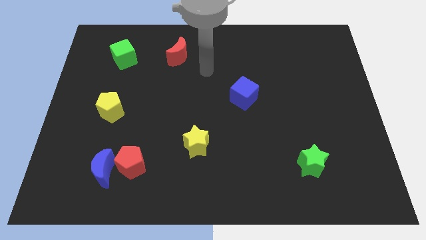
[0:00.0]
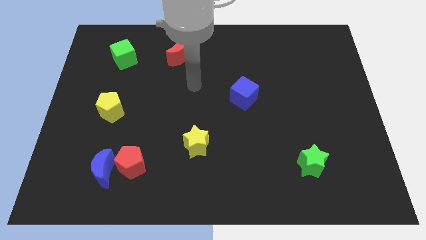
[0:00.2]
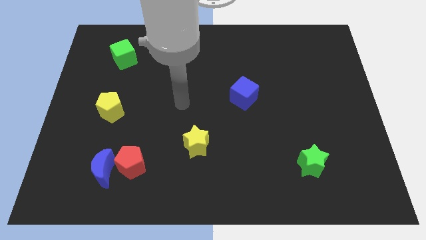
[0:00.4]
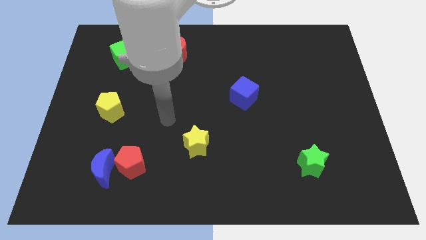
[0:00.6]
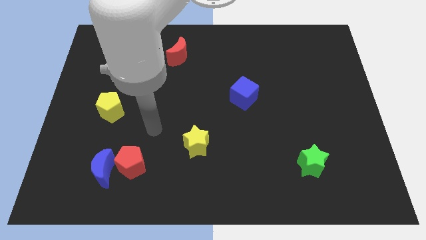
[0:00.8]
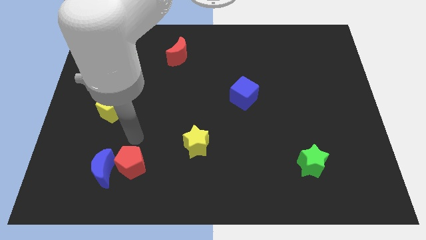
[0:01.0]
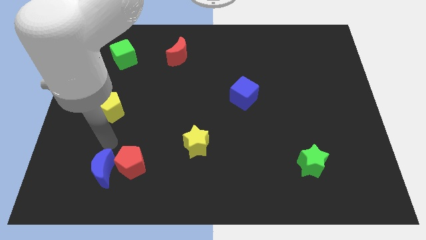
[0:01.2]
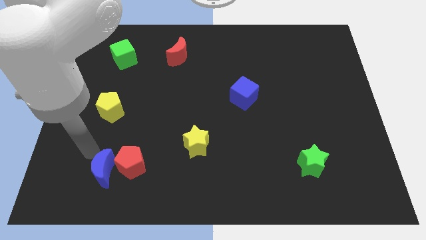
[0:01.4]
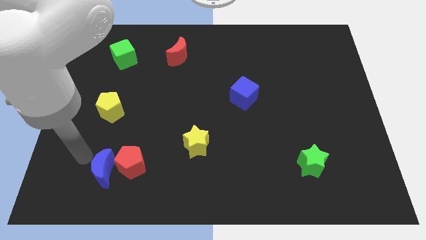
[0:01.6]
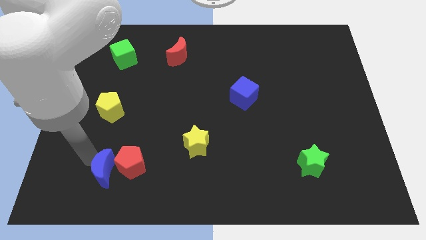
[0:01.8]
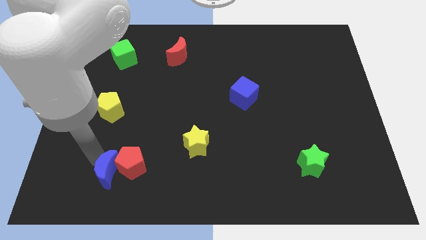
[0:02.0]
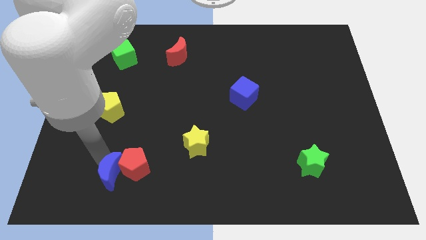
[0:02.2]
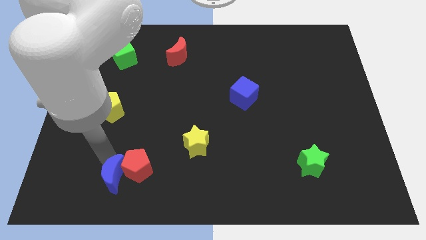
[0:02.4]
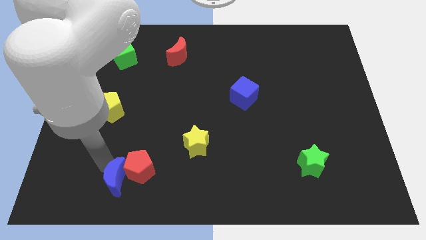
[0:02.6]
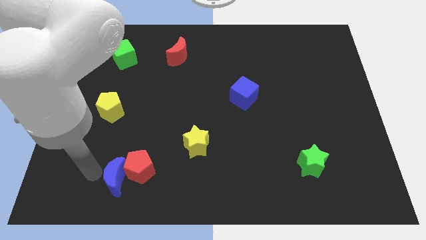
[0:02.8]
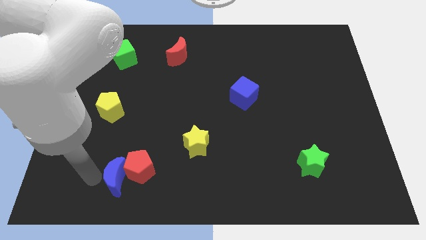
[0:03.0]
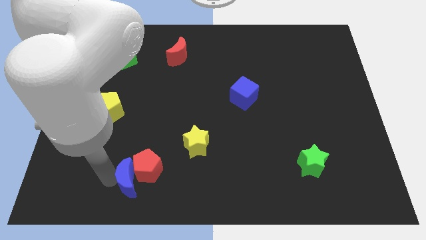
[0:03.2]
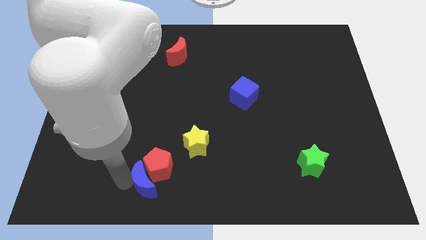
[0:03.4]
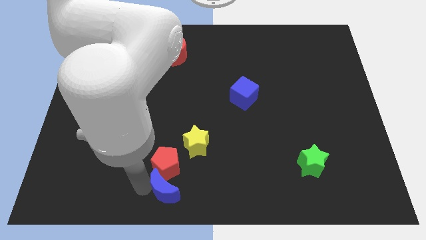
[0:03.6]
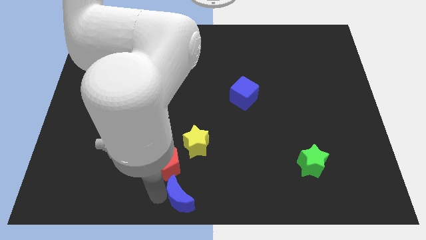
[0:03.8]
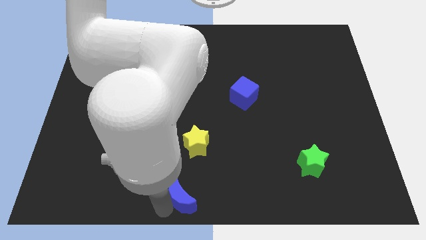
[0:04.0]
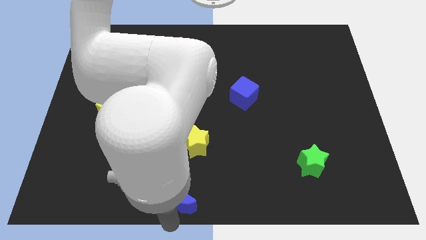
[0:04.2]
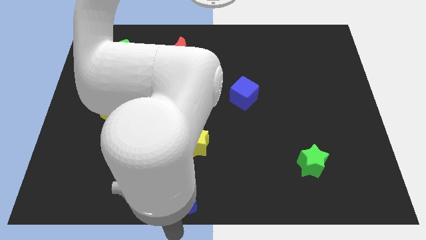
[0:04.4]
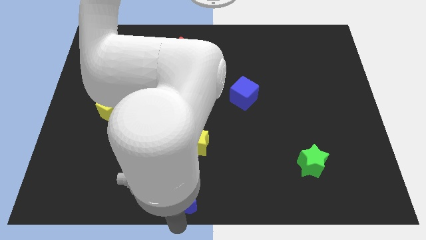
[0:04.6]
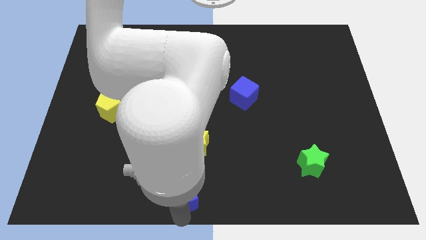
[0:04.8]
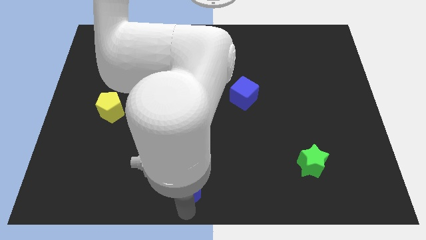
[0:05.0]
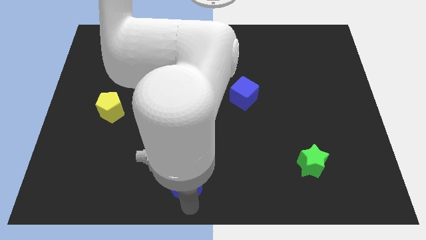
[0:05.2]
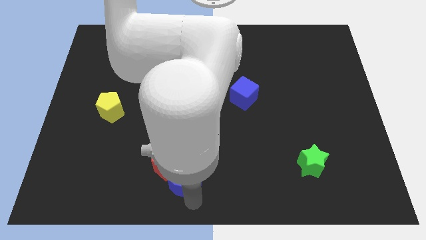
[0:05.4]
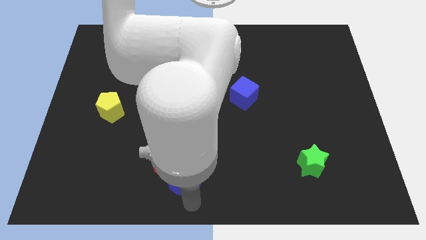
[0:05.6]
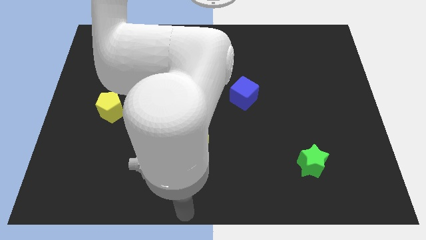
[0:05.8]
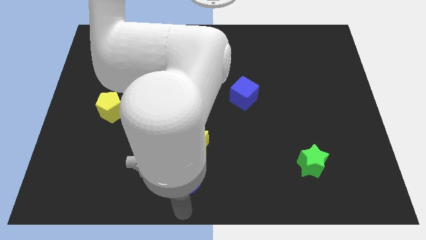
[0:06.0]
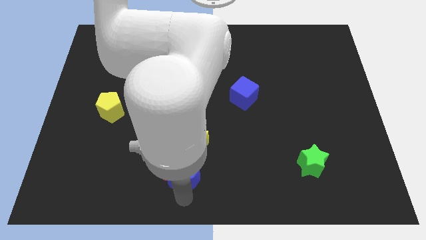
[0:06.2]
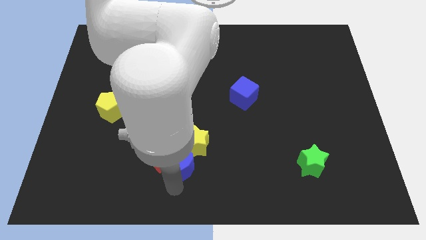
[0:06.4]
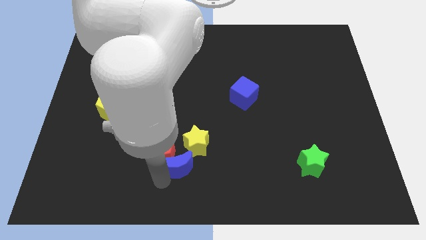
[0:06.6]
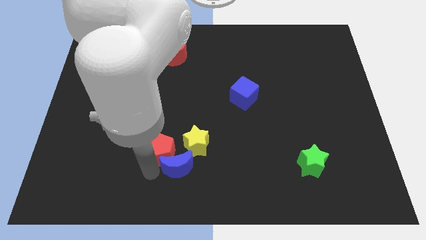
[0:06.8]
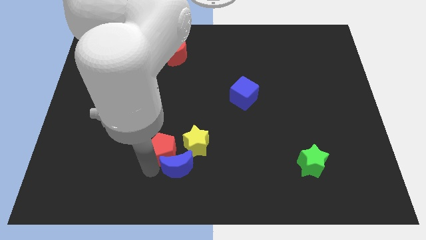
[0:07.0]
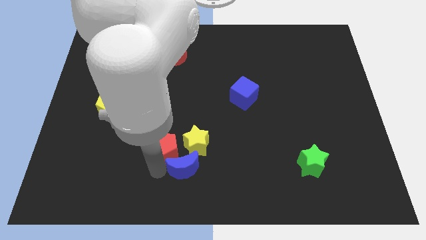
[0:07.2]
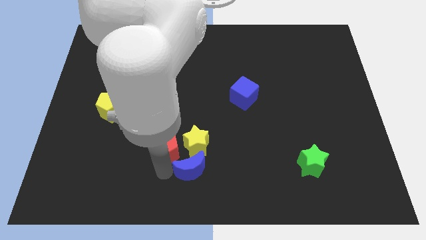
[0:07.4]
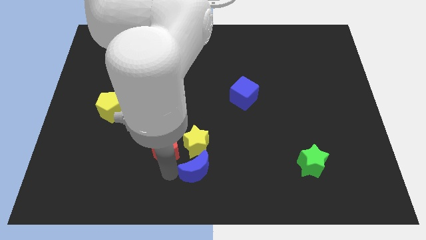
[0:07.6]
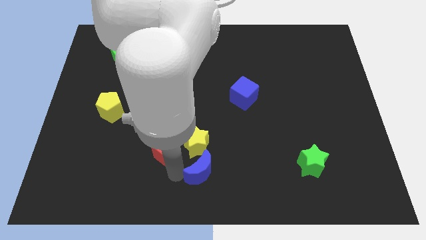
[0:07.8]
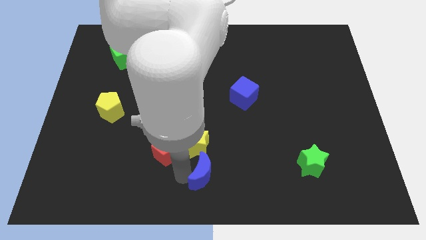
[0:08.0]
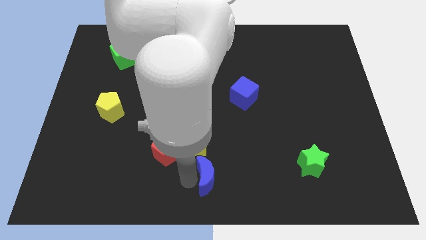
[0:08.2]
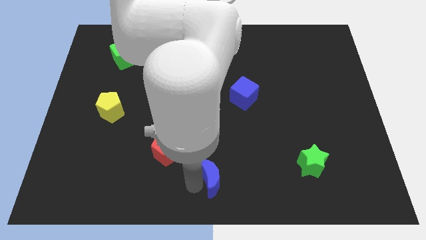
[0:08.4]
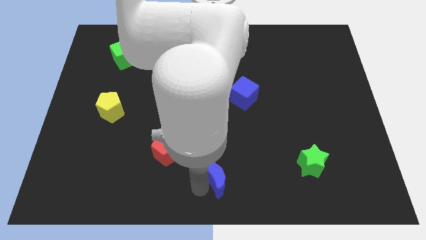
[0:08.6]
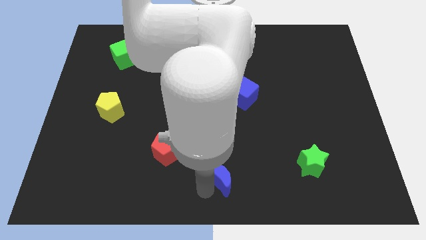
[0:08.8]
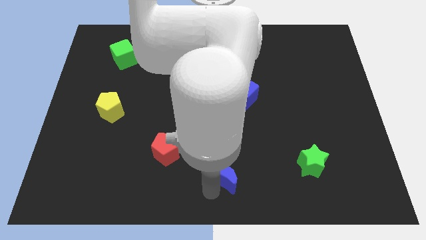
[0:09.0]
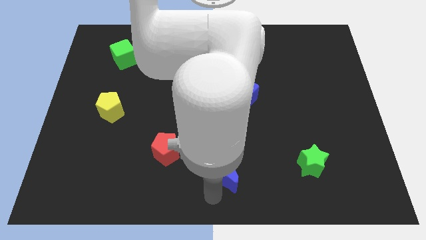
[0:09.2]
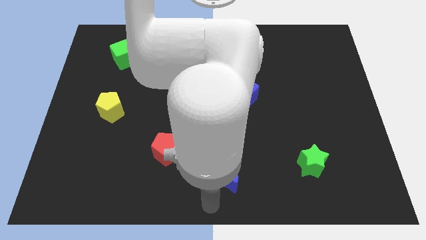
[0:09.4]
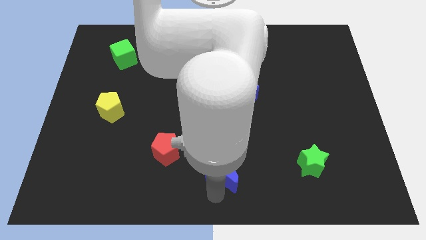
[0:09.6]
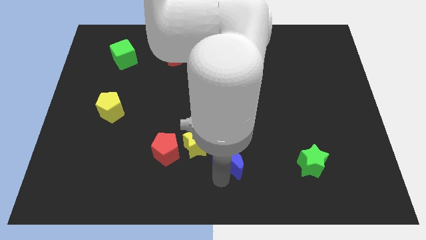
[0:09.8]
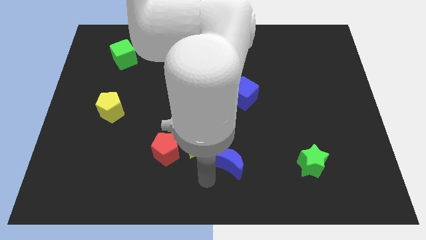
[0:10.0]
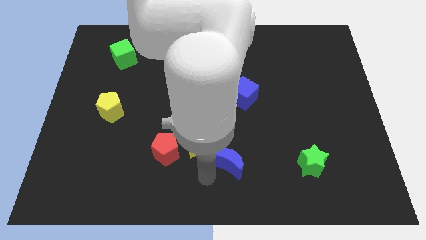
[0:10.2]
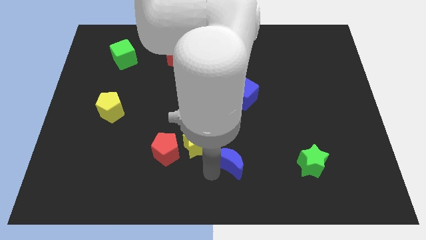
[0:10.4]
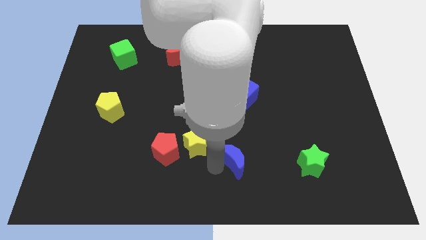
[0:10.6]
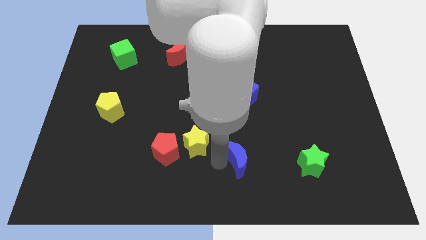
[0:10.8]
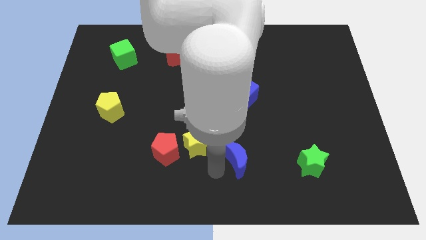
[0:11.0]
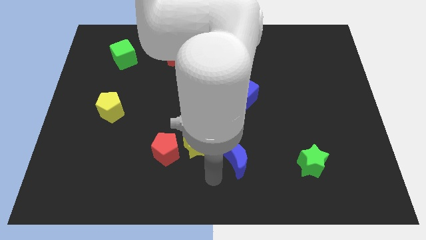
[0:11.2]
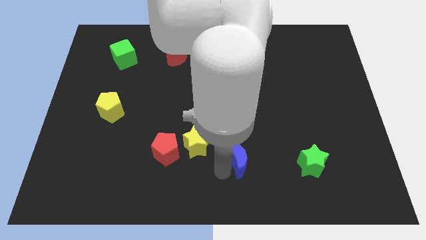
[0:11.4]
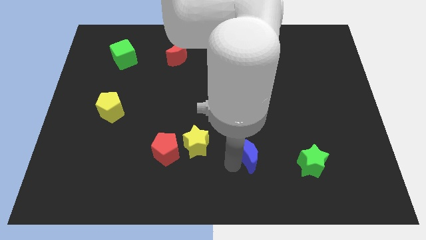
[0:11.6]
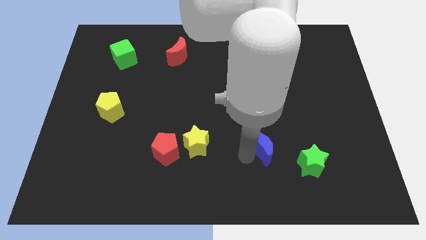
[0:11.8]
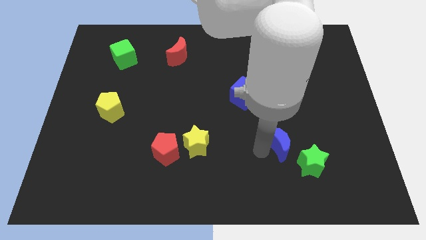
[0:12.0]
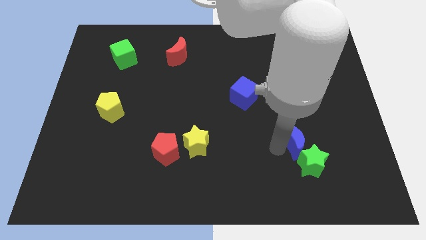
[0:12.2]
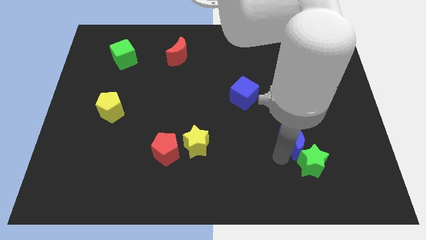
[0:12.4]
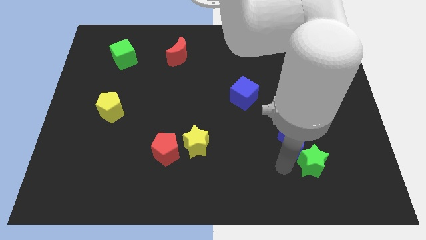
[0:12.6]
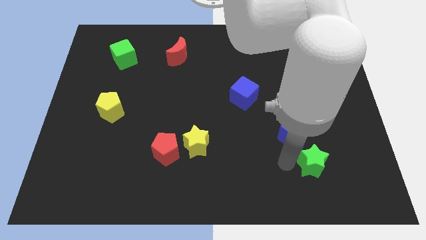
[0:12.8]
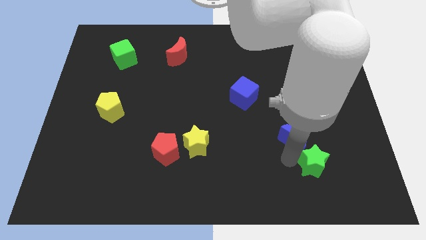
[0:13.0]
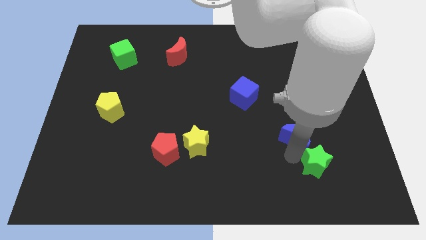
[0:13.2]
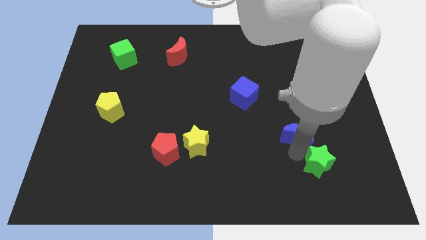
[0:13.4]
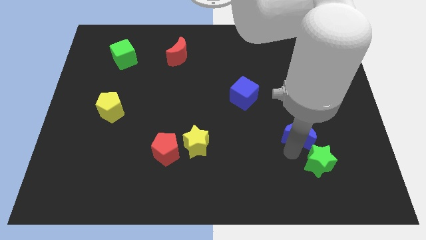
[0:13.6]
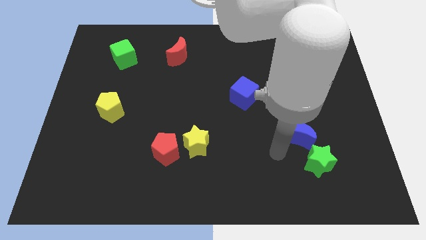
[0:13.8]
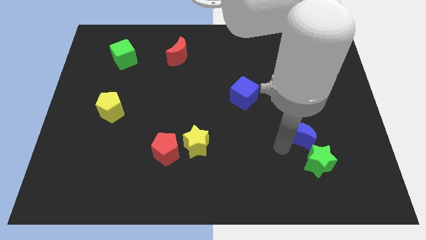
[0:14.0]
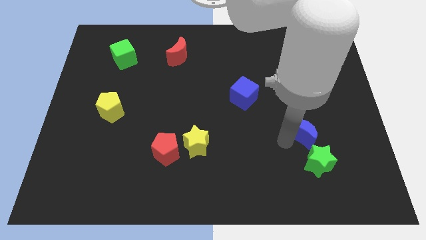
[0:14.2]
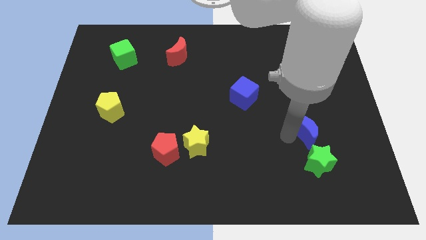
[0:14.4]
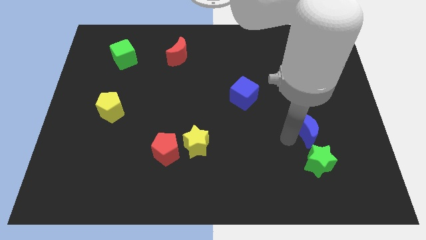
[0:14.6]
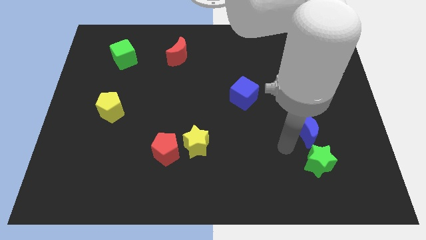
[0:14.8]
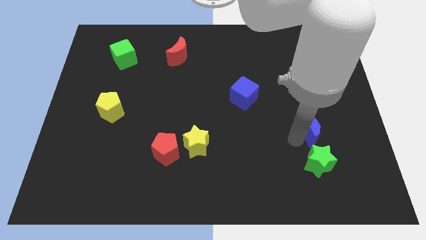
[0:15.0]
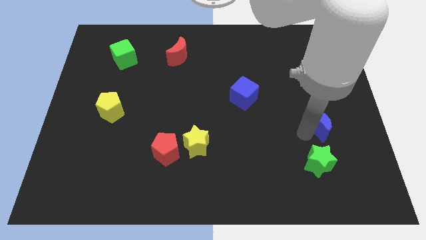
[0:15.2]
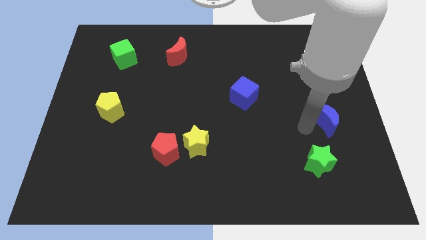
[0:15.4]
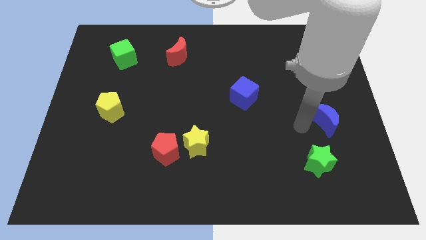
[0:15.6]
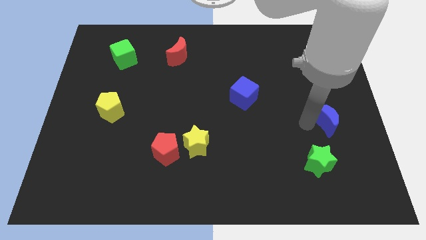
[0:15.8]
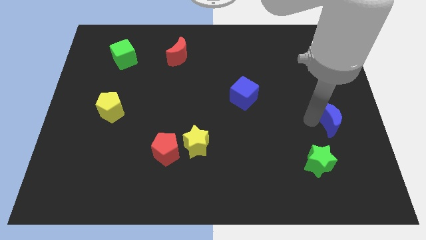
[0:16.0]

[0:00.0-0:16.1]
put the blue moon to the right side of the board
